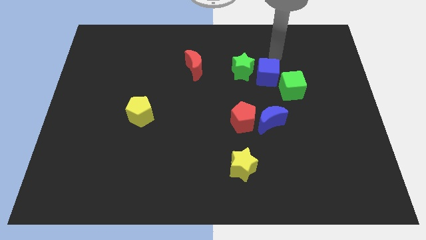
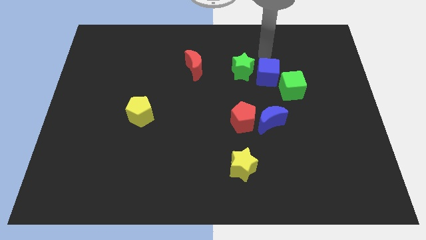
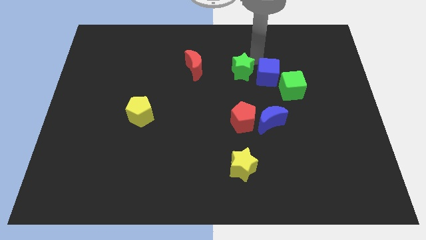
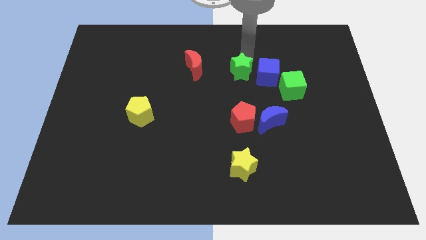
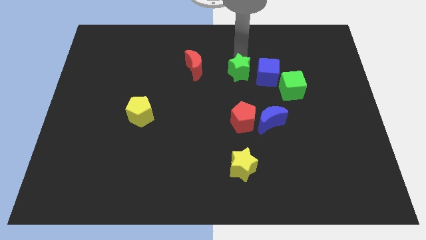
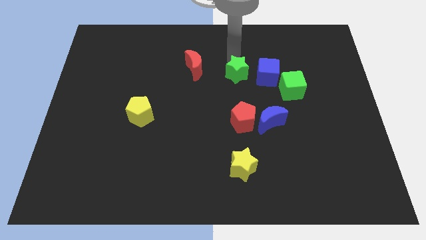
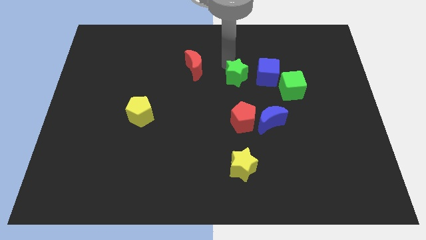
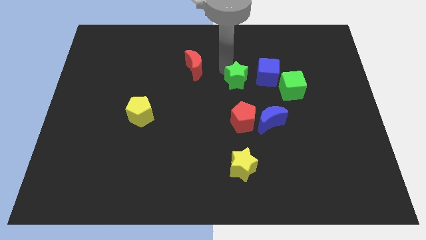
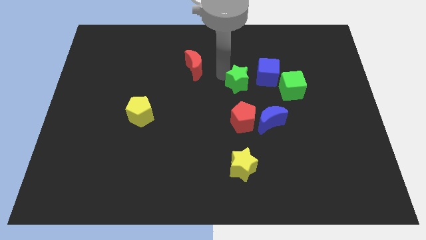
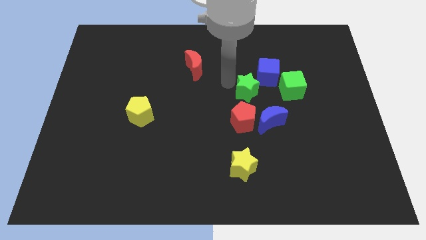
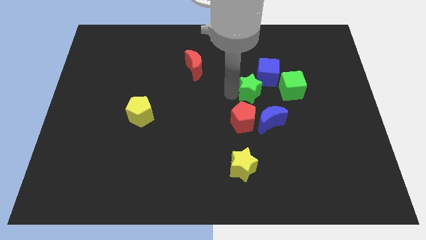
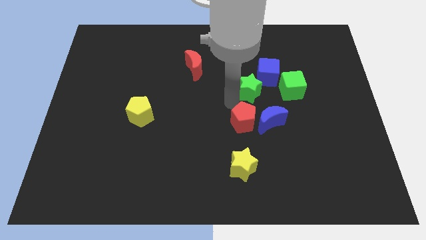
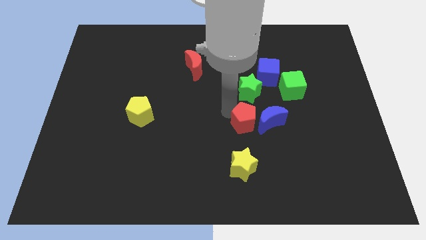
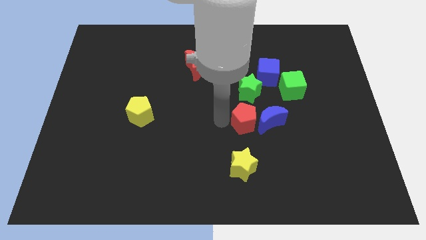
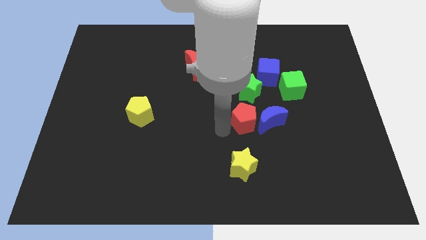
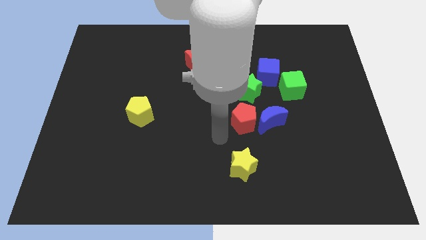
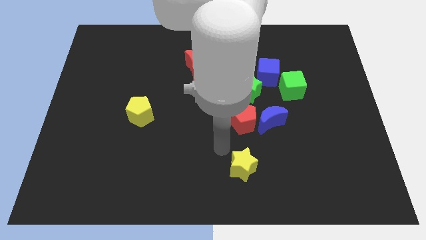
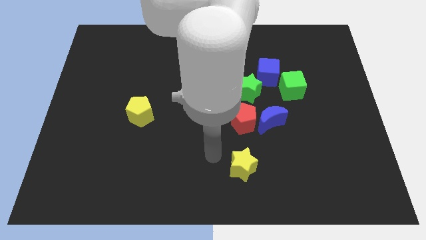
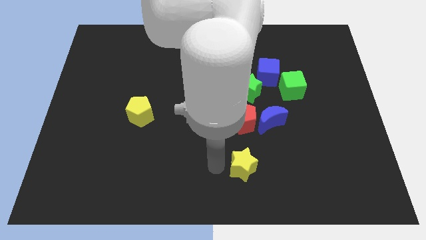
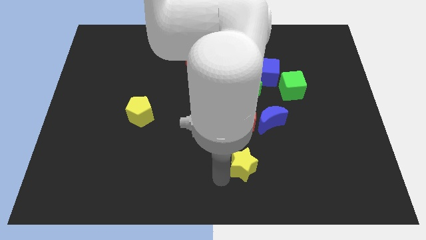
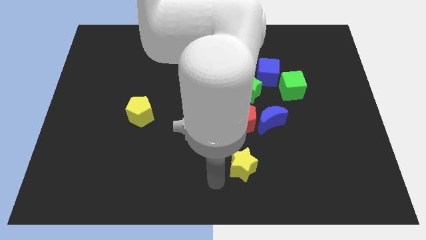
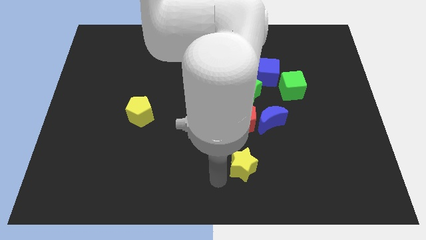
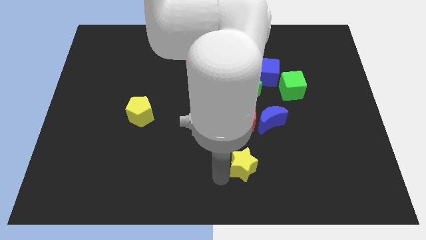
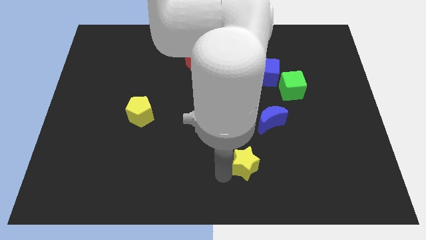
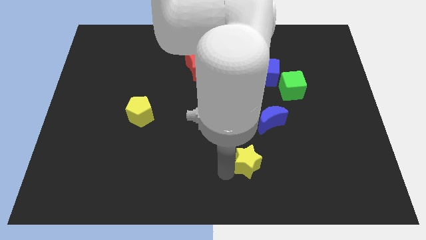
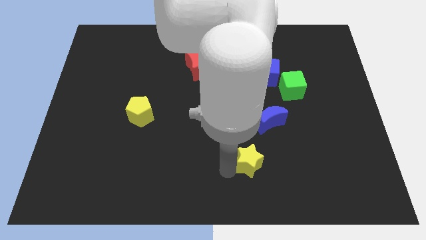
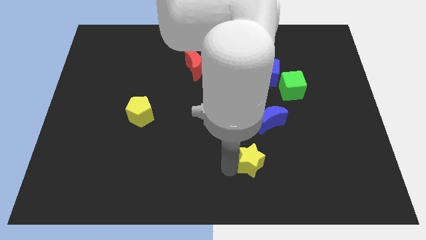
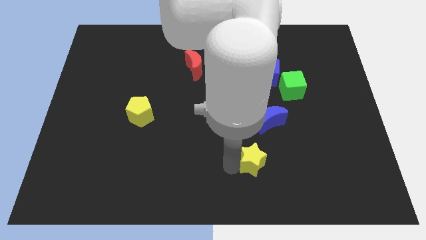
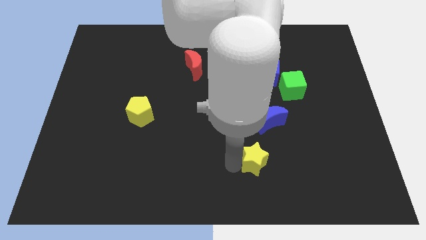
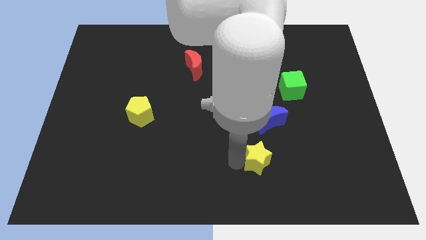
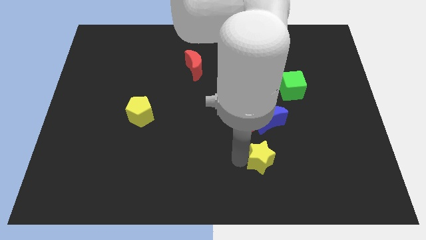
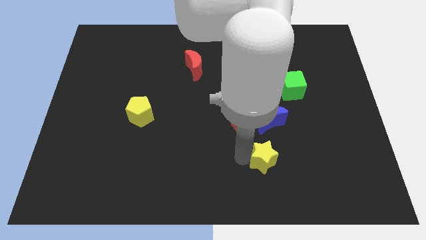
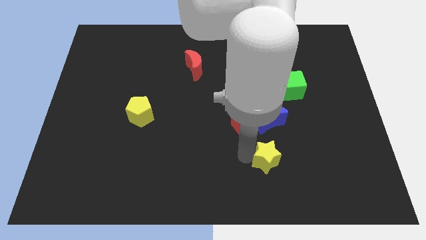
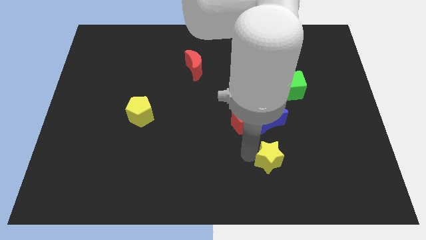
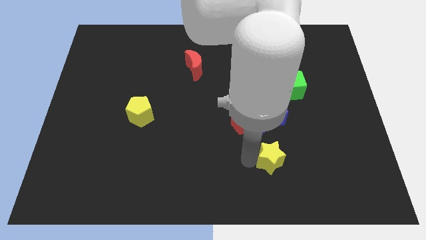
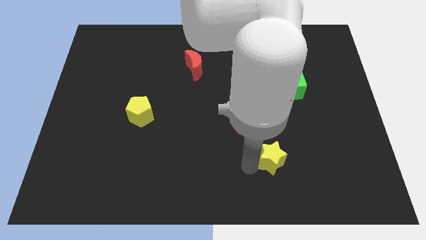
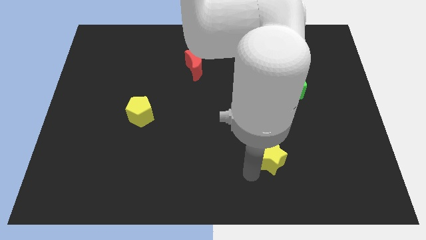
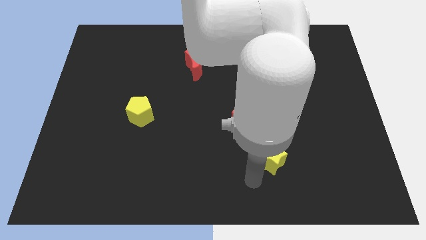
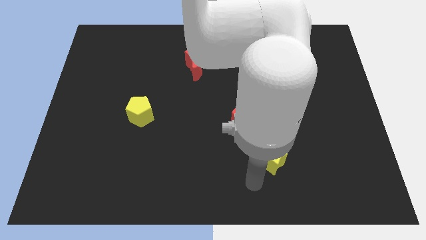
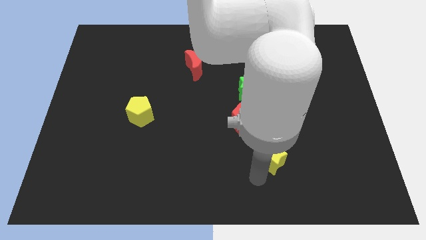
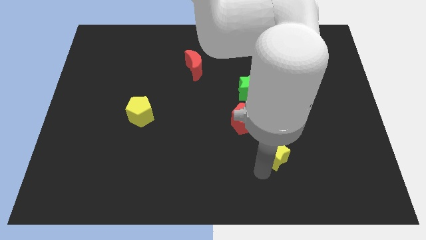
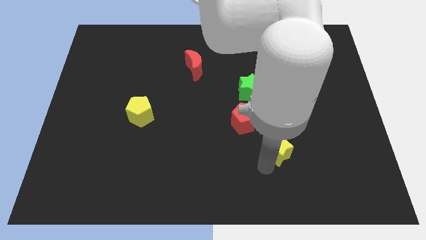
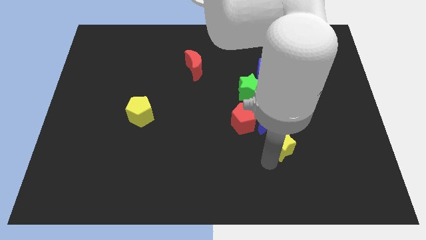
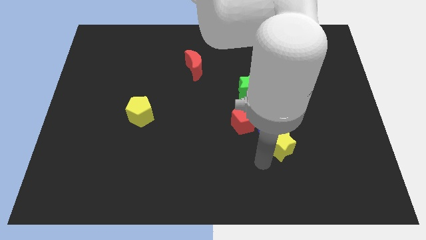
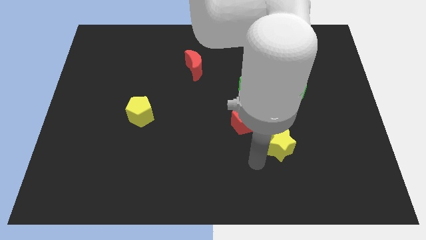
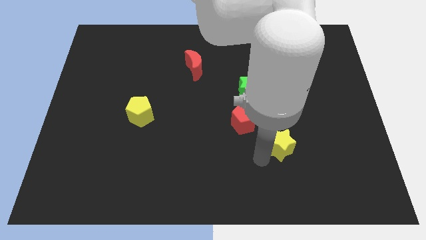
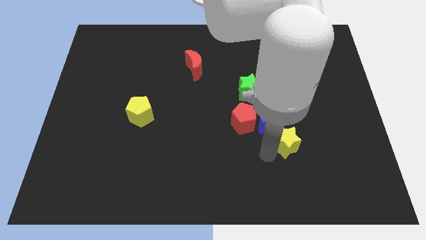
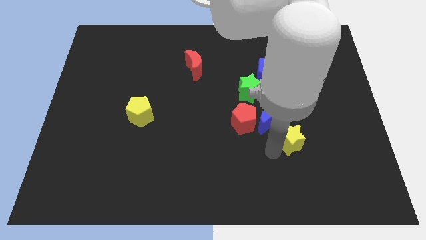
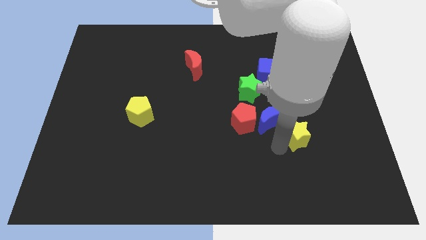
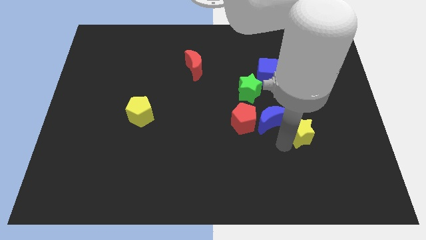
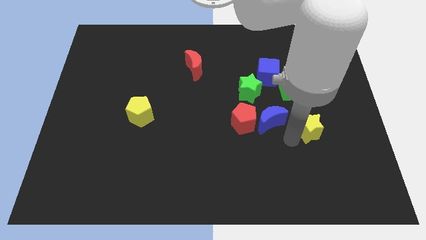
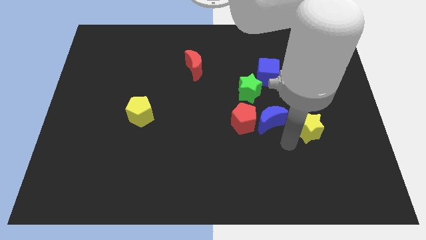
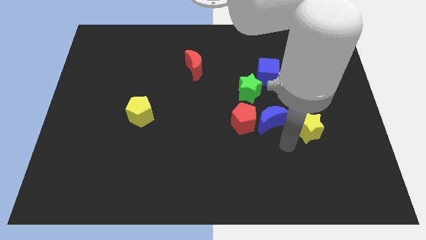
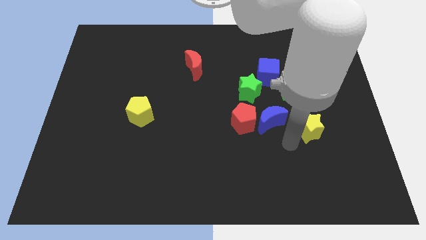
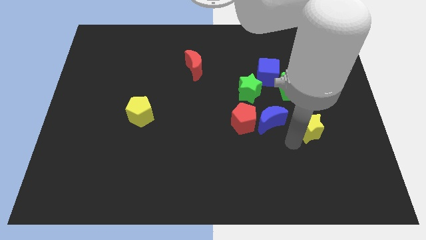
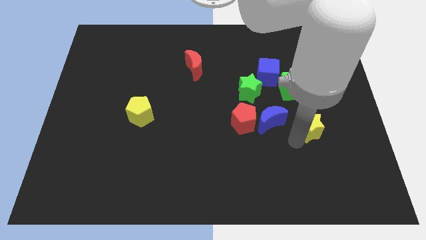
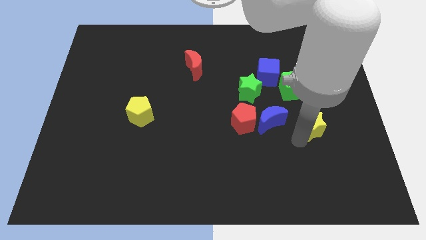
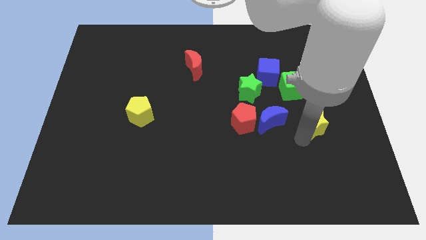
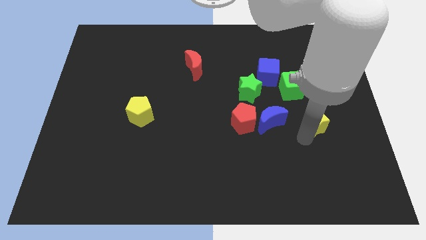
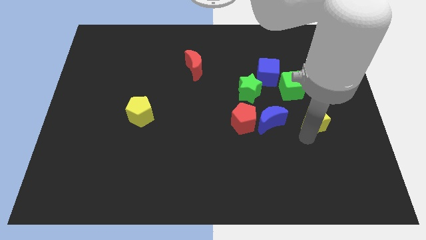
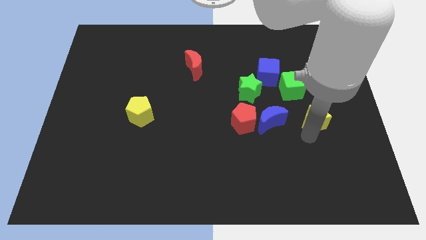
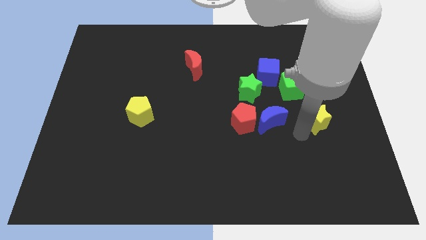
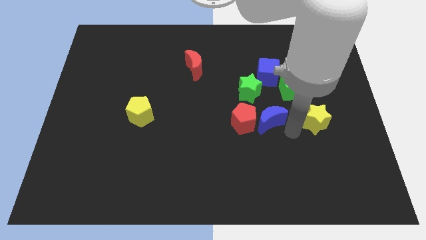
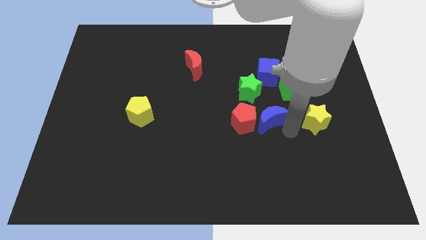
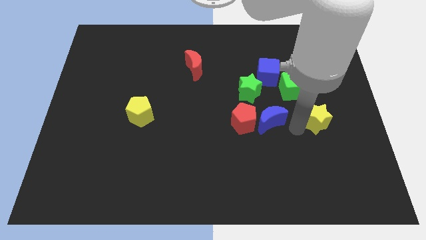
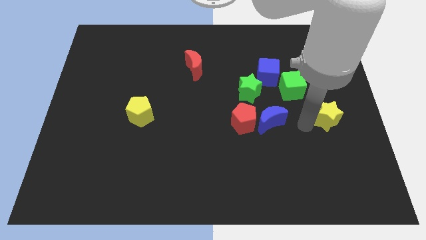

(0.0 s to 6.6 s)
push the yellow star to the center right
